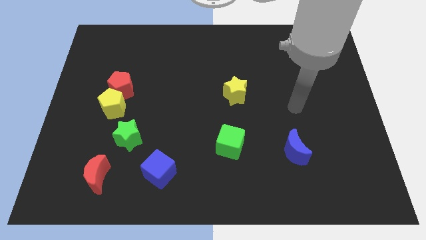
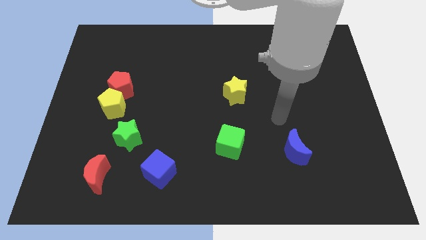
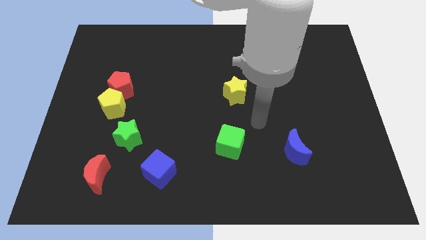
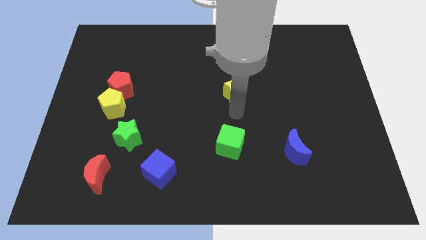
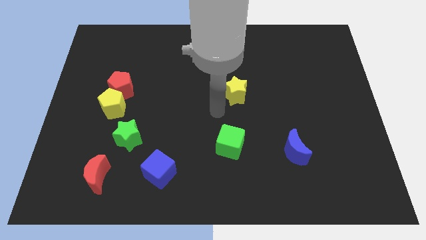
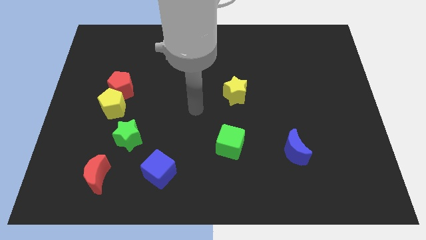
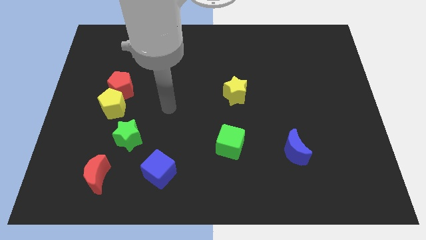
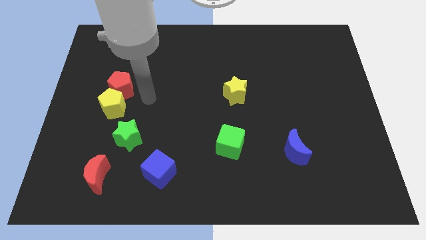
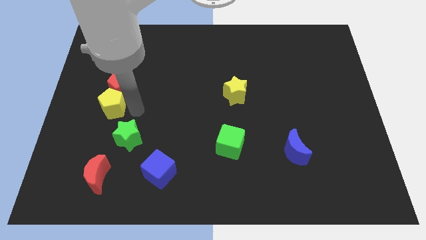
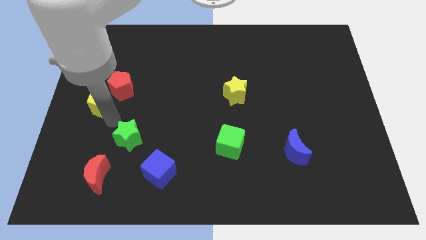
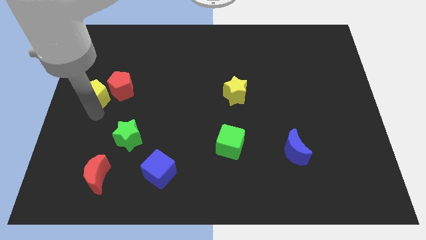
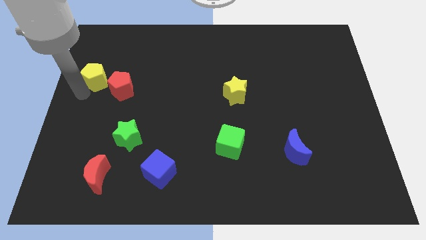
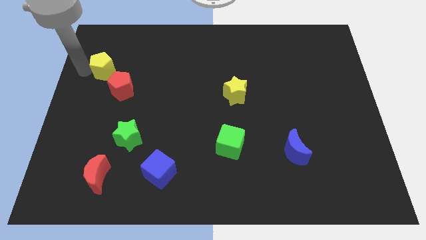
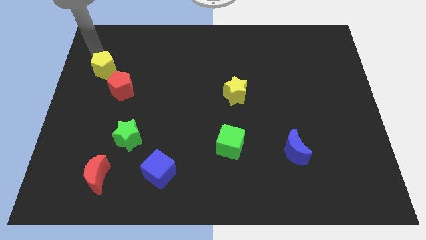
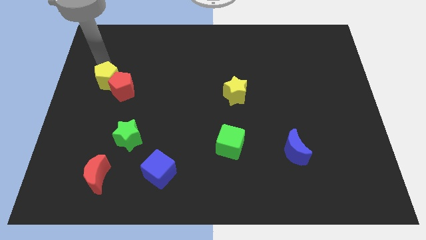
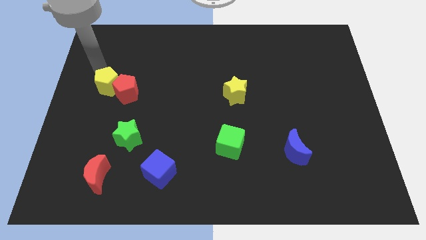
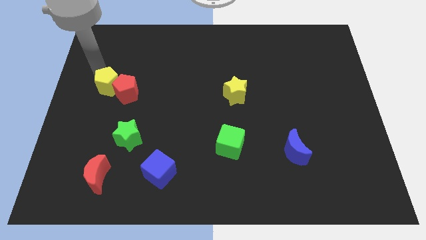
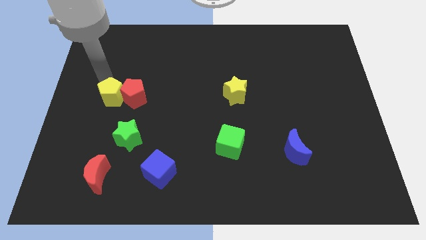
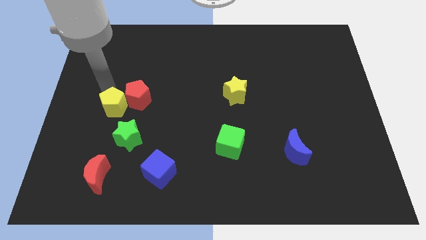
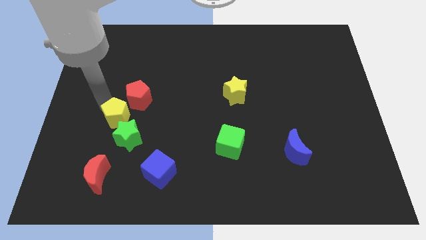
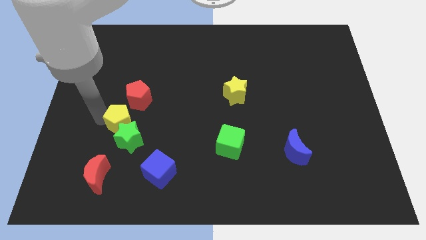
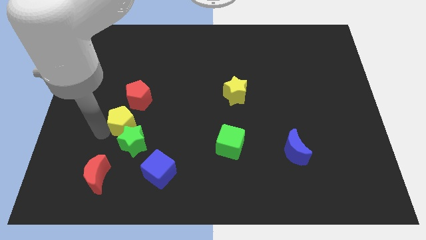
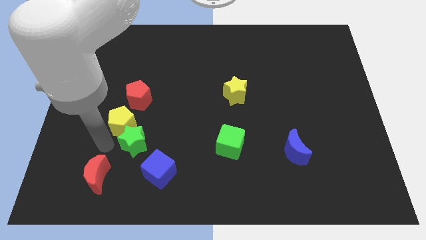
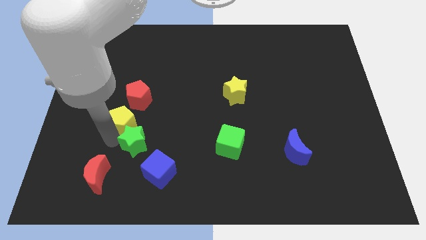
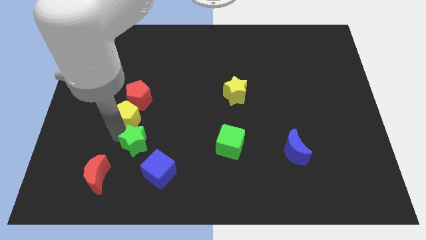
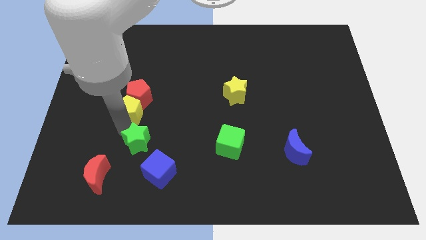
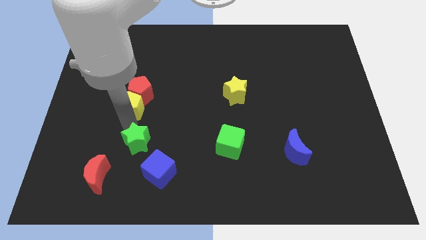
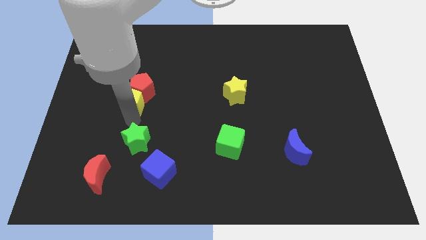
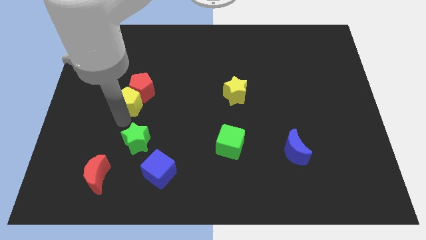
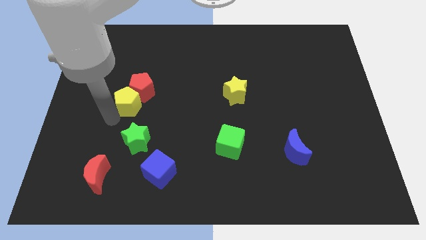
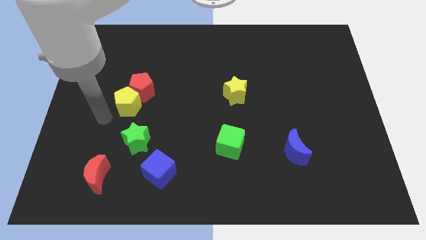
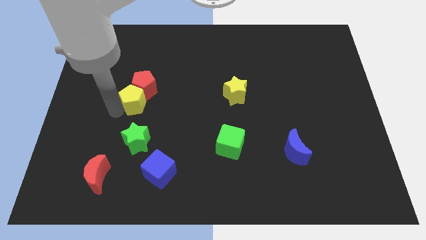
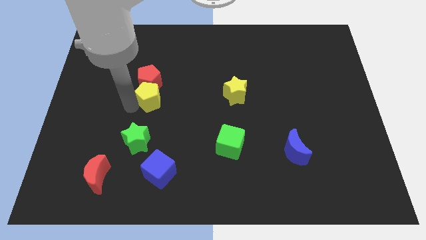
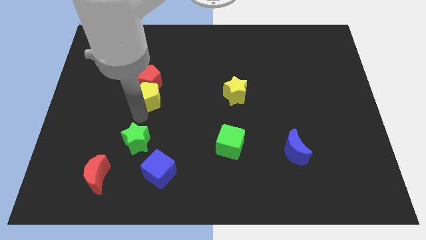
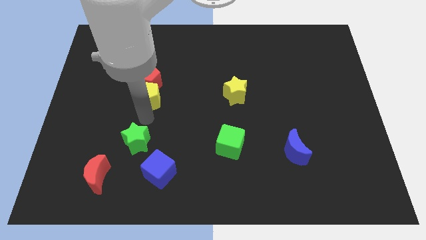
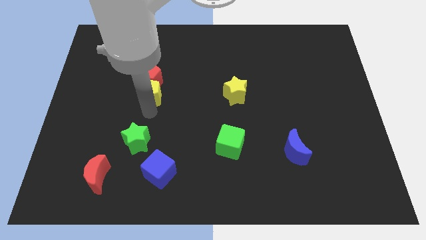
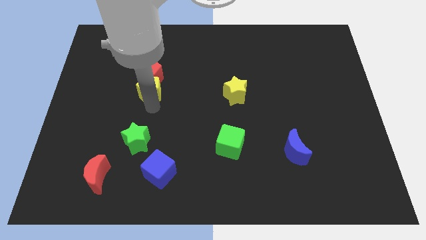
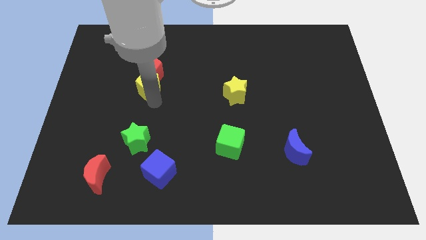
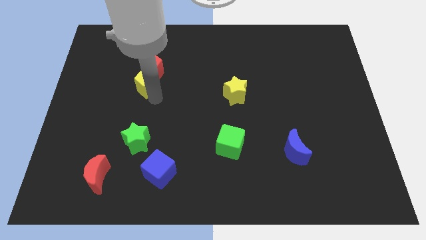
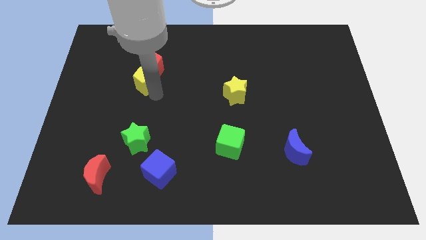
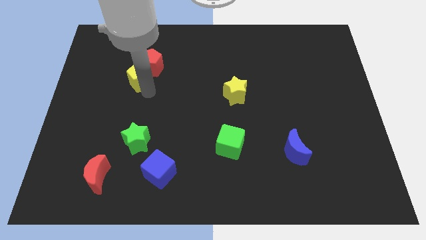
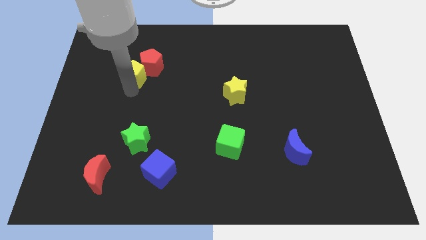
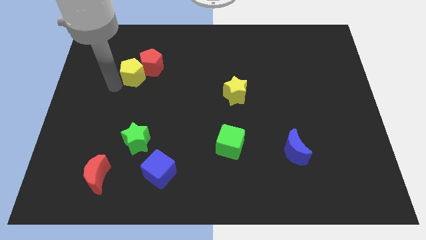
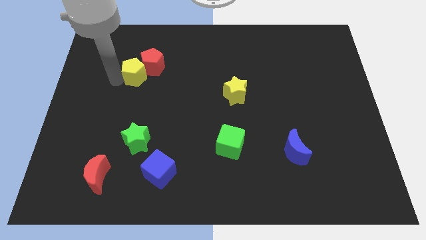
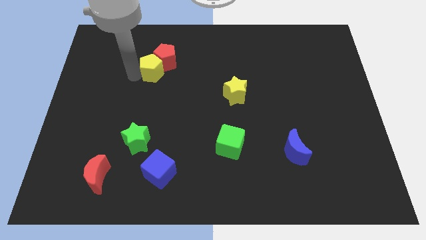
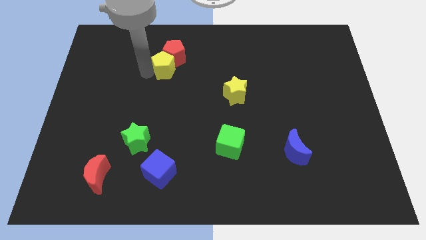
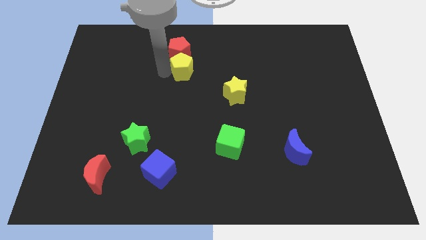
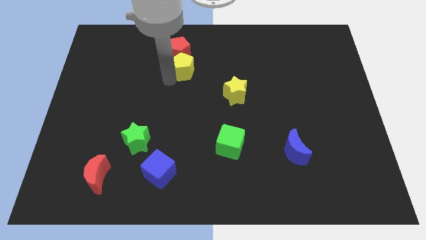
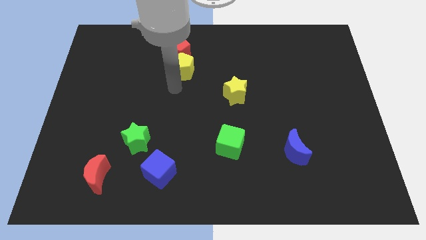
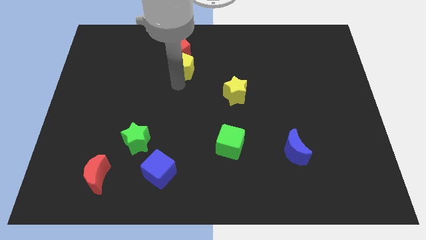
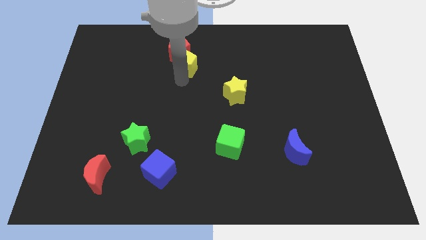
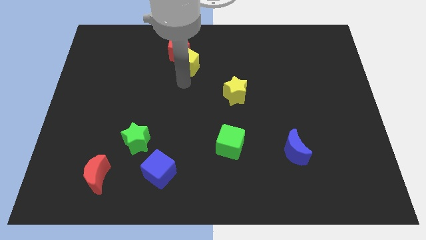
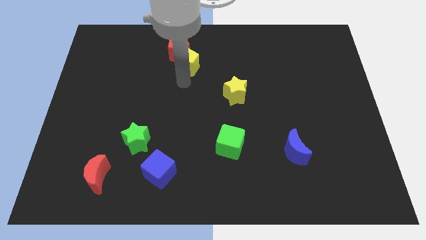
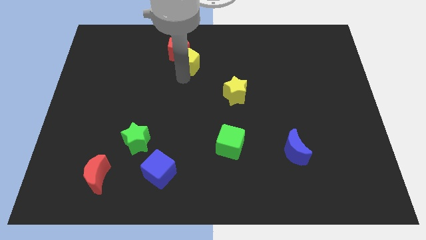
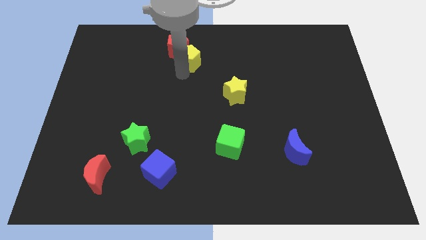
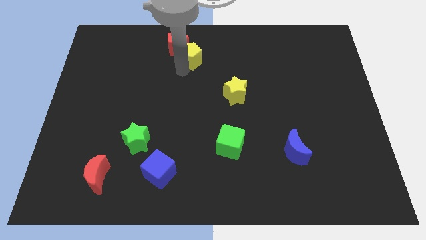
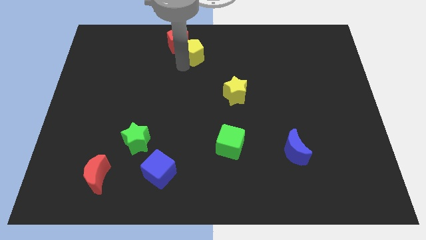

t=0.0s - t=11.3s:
push the yellow pentagon to the top side

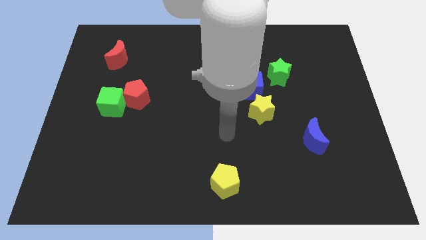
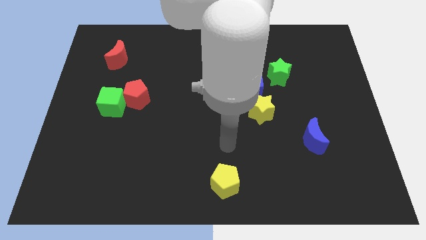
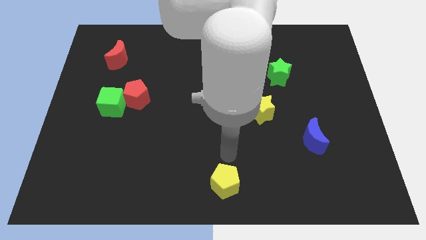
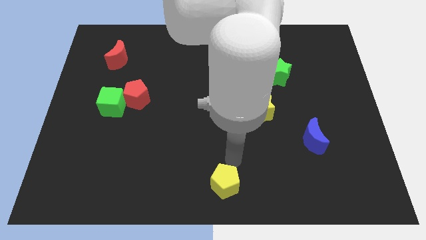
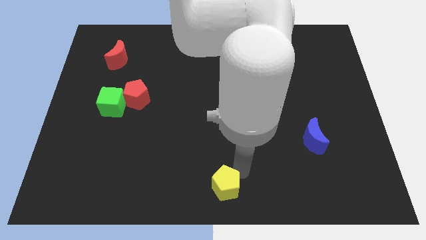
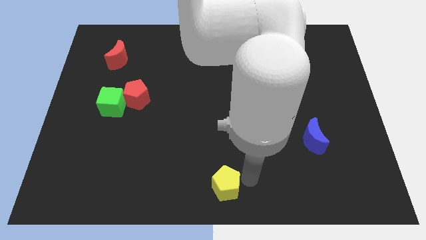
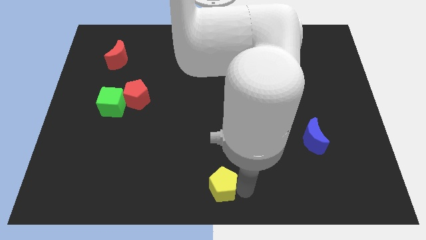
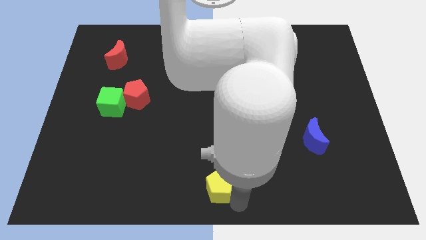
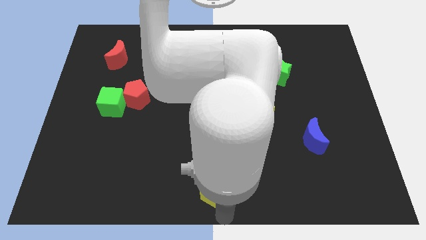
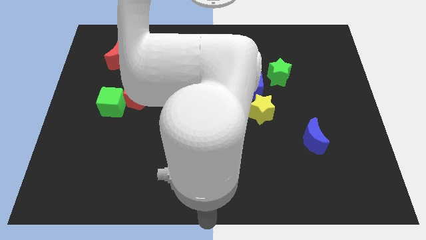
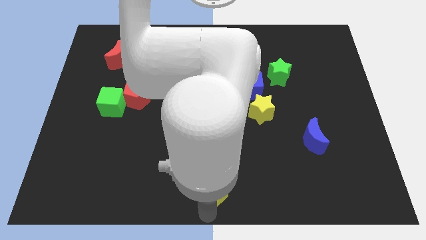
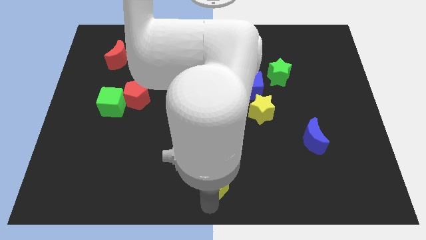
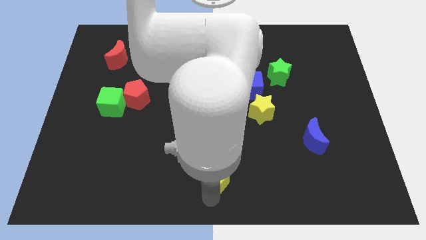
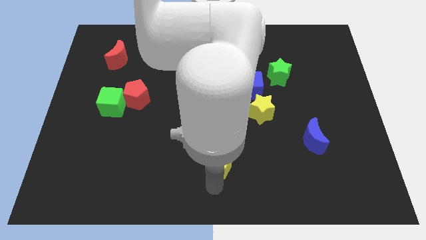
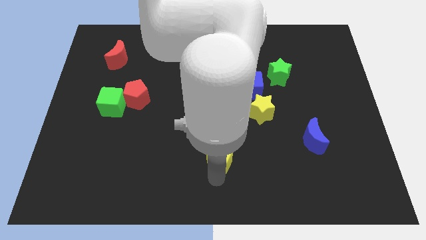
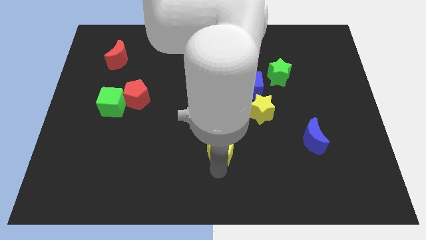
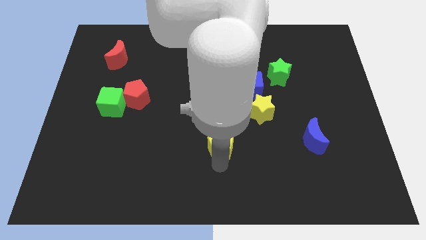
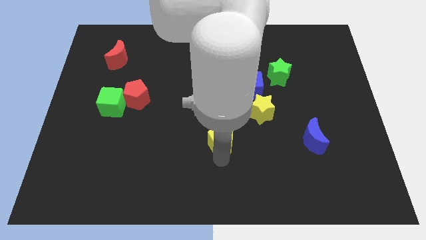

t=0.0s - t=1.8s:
move the yellow pentagon to the center
